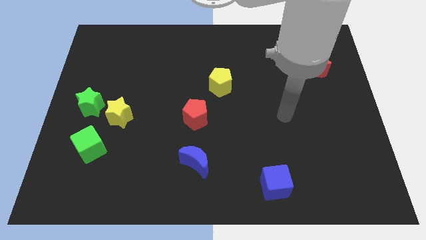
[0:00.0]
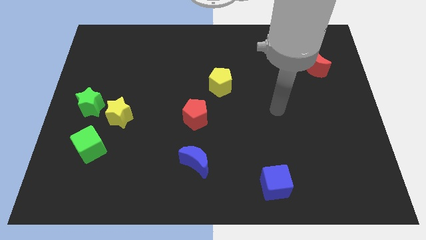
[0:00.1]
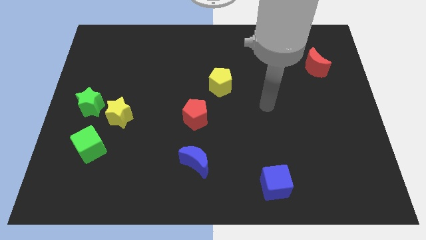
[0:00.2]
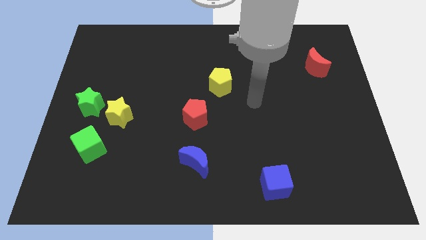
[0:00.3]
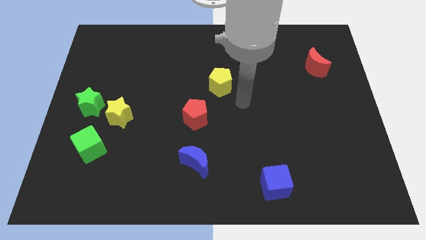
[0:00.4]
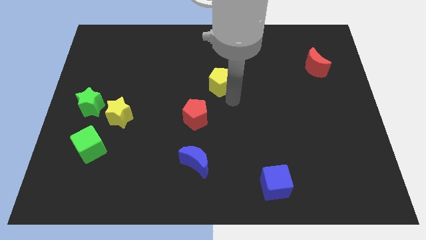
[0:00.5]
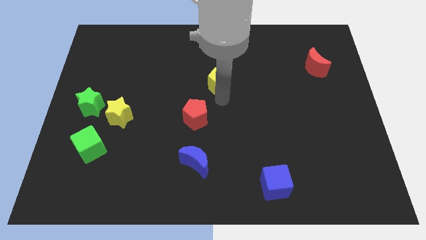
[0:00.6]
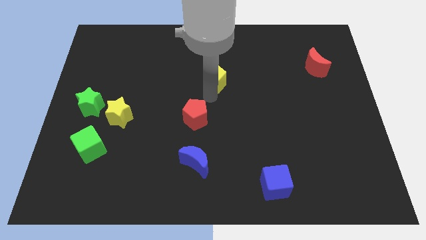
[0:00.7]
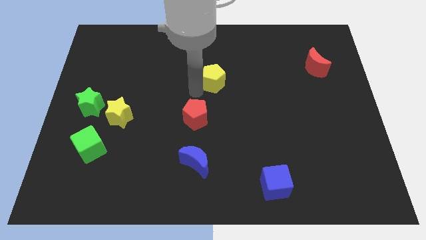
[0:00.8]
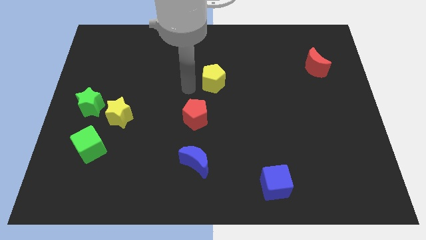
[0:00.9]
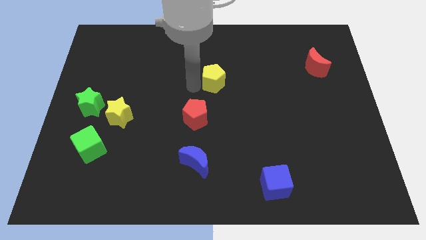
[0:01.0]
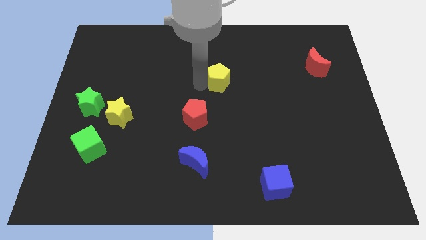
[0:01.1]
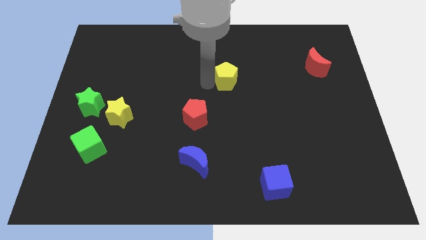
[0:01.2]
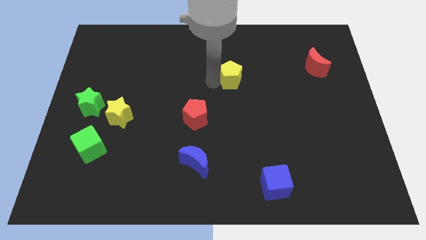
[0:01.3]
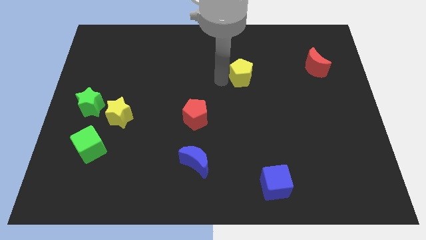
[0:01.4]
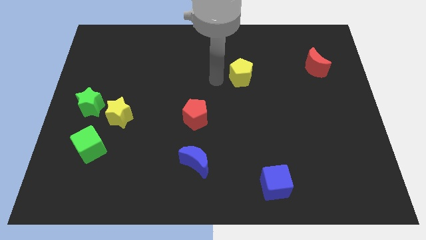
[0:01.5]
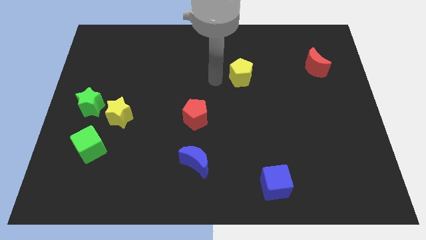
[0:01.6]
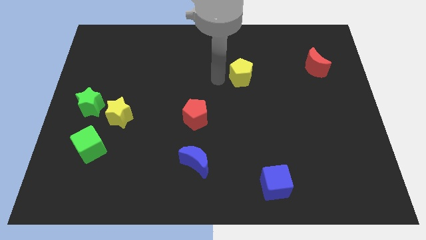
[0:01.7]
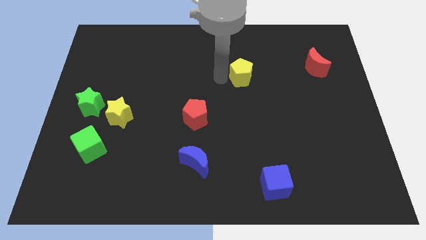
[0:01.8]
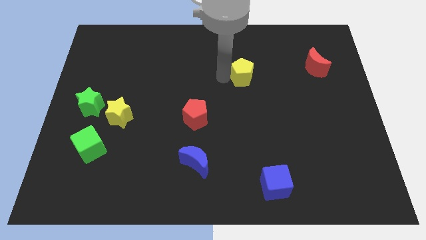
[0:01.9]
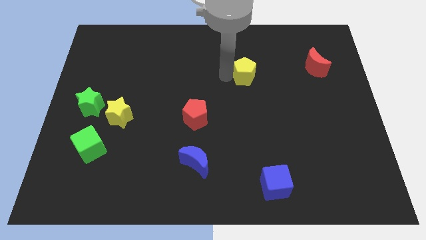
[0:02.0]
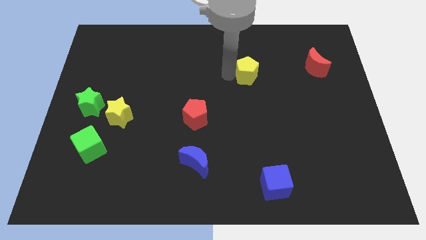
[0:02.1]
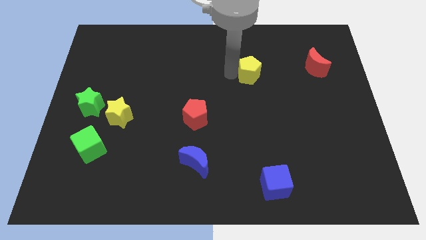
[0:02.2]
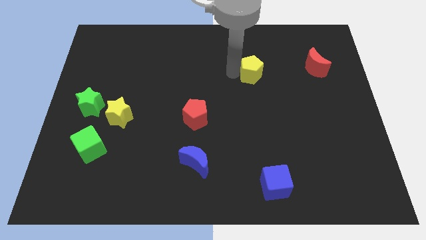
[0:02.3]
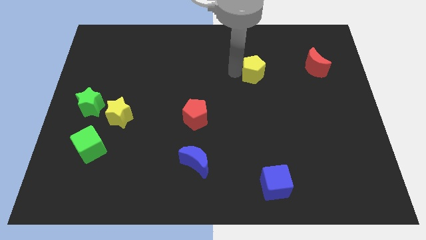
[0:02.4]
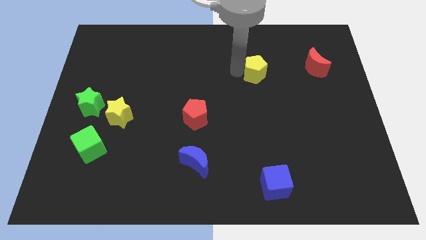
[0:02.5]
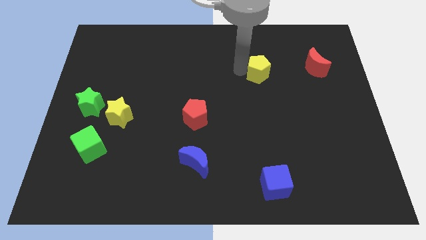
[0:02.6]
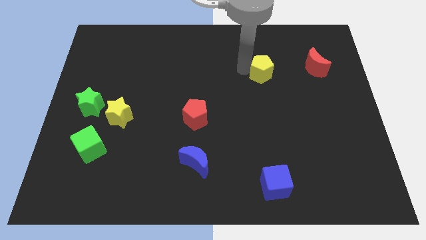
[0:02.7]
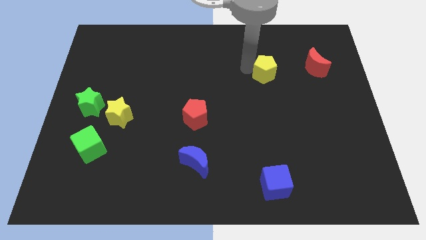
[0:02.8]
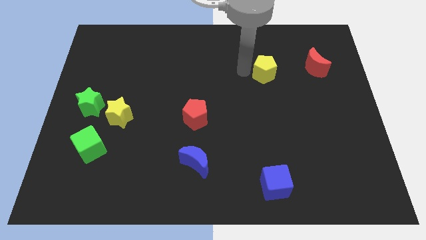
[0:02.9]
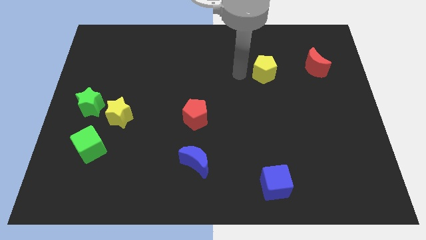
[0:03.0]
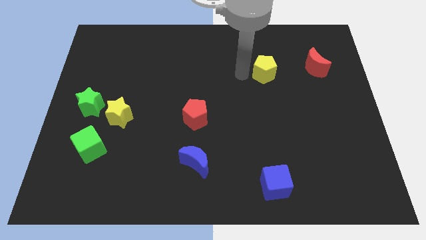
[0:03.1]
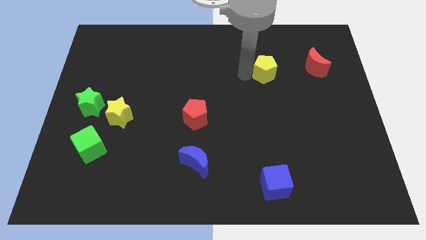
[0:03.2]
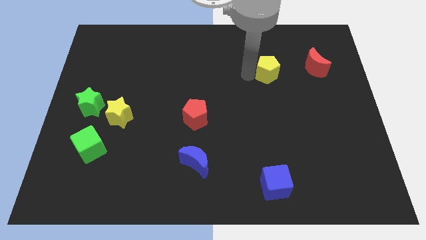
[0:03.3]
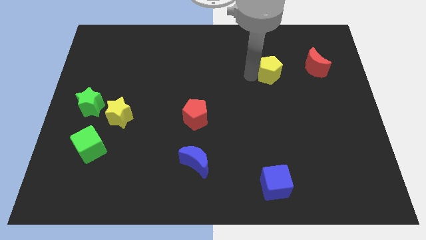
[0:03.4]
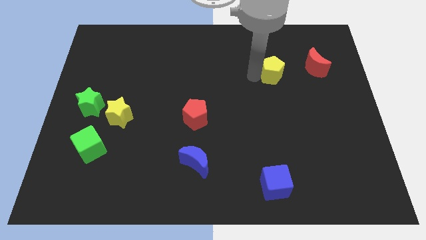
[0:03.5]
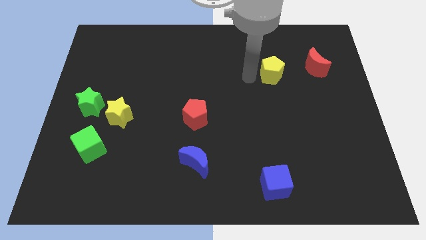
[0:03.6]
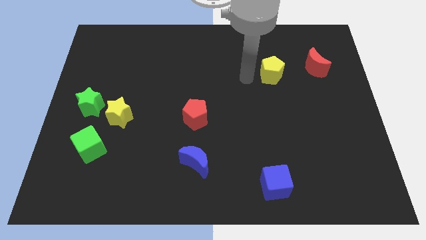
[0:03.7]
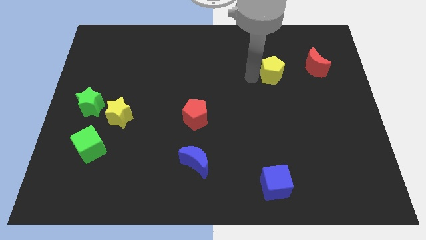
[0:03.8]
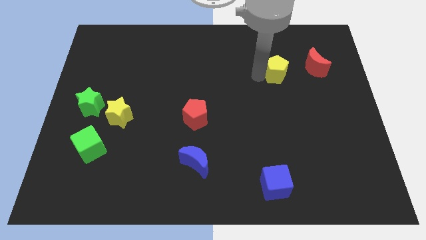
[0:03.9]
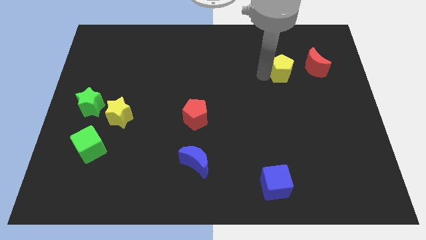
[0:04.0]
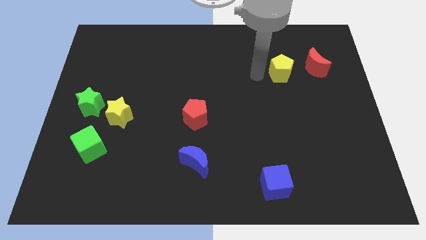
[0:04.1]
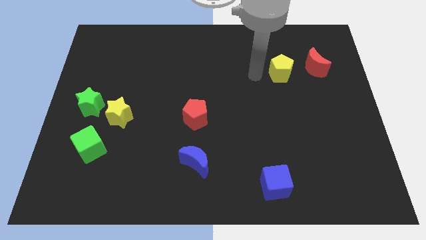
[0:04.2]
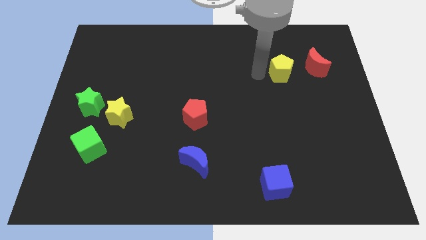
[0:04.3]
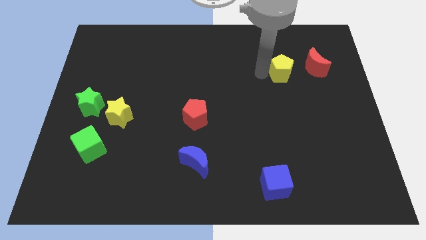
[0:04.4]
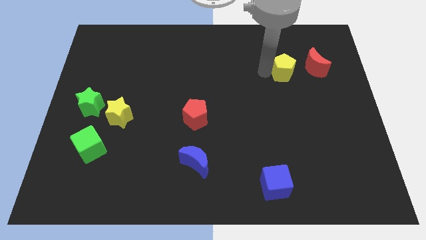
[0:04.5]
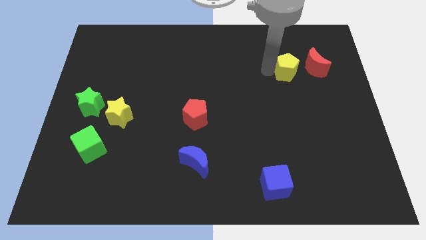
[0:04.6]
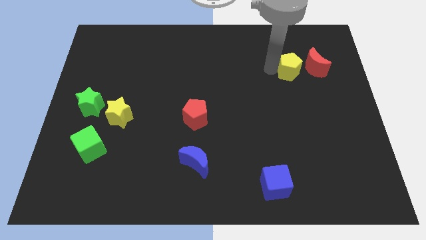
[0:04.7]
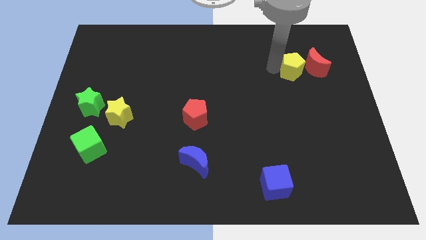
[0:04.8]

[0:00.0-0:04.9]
push the yellow pentagon to the red moon
